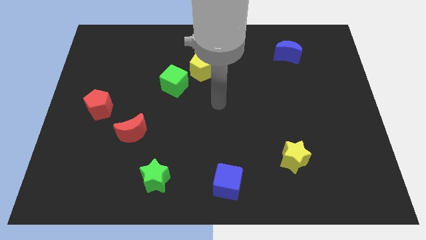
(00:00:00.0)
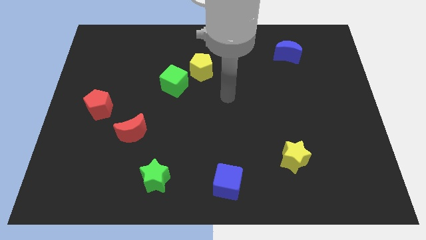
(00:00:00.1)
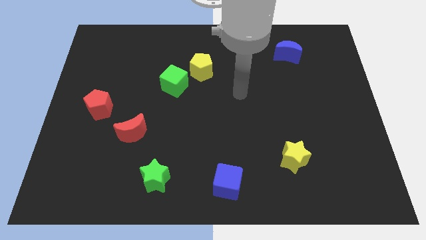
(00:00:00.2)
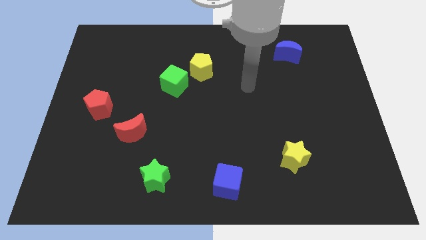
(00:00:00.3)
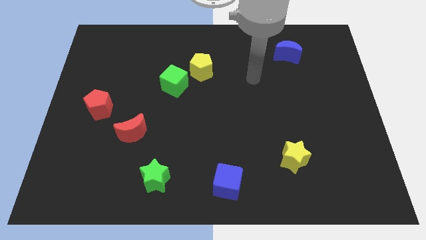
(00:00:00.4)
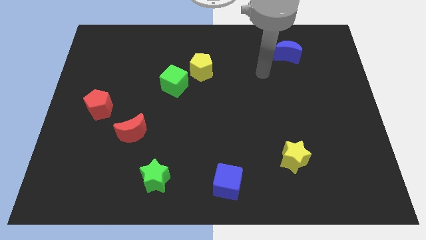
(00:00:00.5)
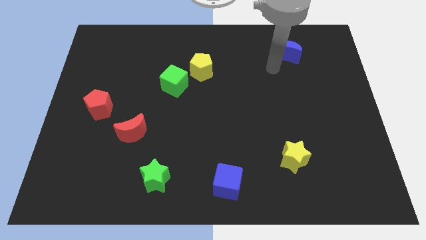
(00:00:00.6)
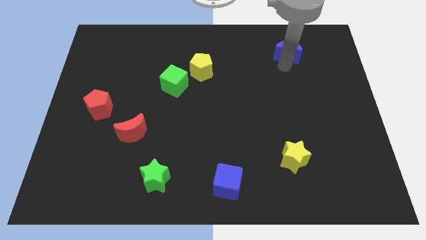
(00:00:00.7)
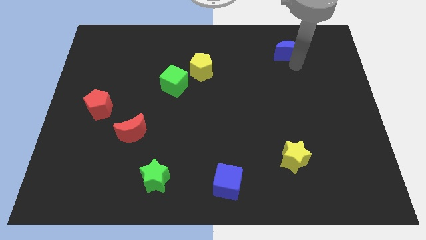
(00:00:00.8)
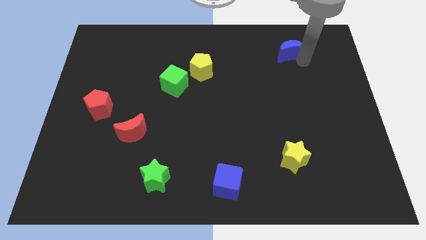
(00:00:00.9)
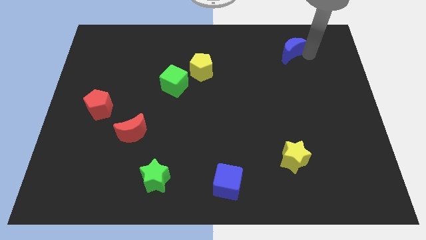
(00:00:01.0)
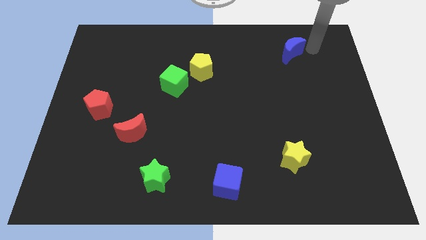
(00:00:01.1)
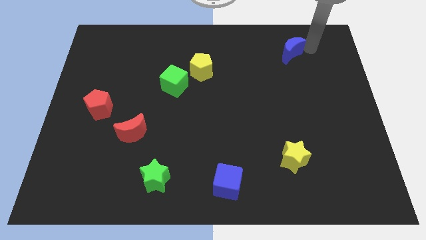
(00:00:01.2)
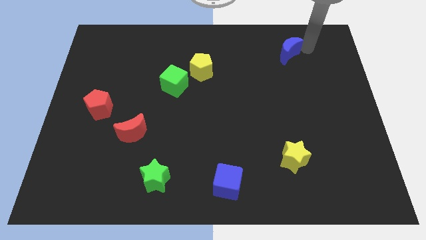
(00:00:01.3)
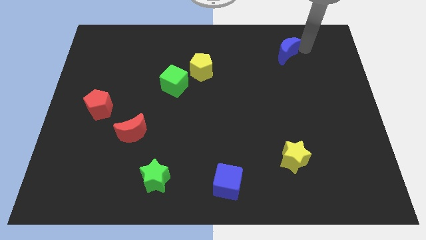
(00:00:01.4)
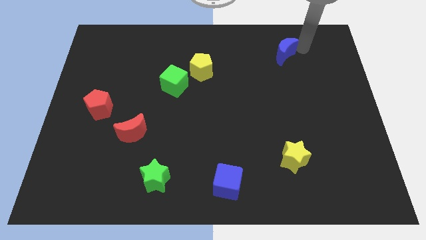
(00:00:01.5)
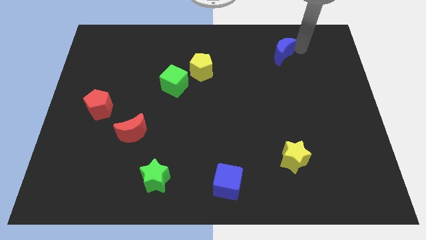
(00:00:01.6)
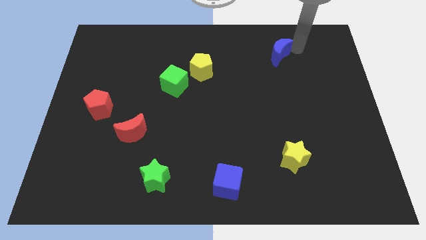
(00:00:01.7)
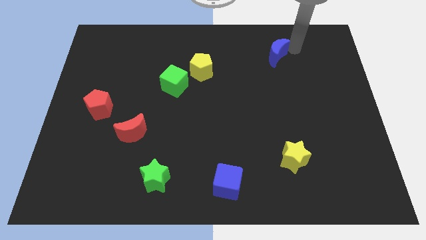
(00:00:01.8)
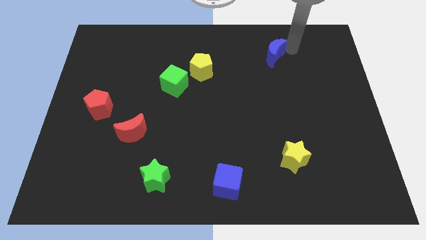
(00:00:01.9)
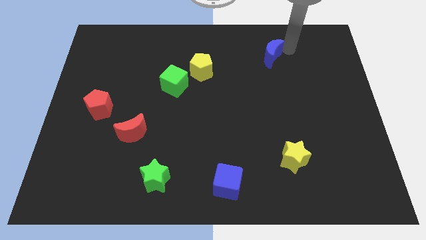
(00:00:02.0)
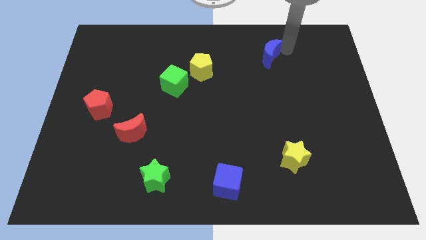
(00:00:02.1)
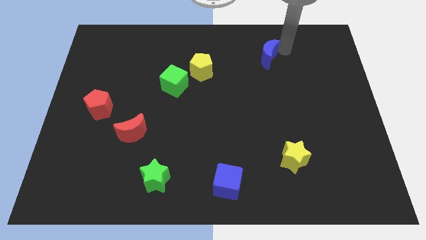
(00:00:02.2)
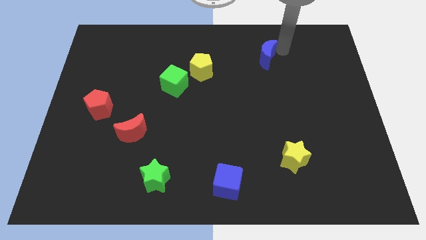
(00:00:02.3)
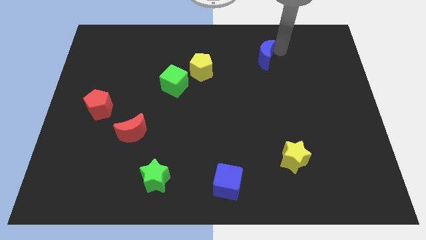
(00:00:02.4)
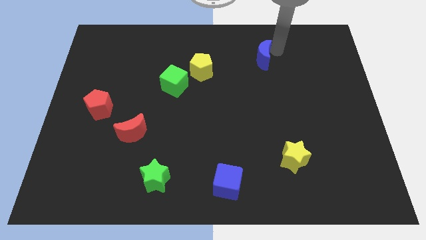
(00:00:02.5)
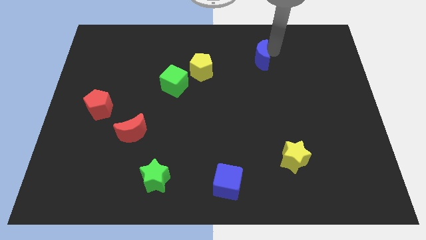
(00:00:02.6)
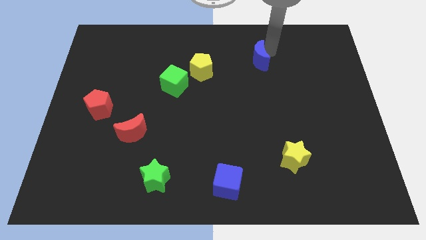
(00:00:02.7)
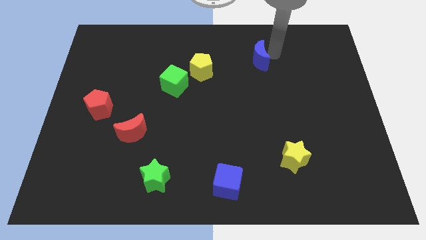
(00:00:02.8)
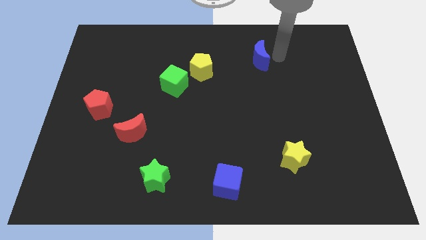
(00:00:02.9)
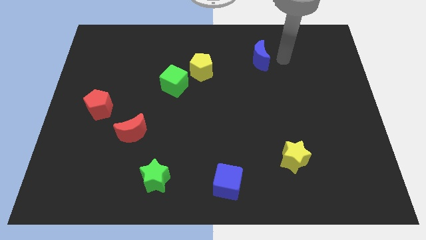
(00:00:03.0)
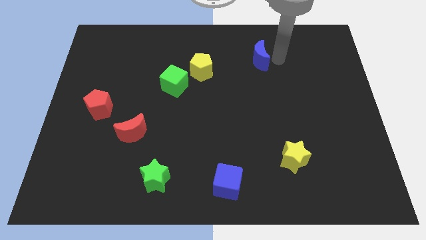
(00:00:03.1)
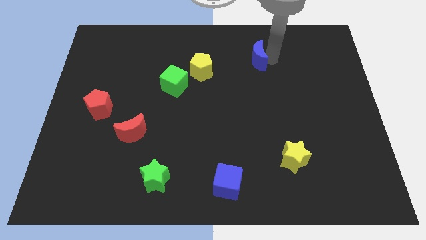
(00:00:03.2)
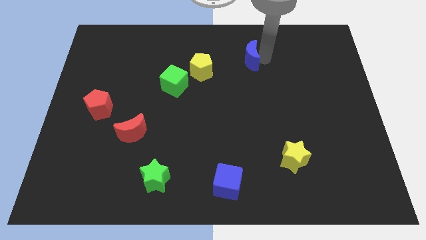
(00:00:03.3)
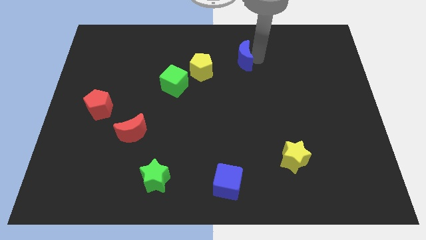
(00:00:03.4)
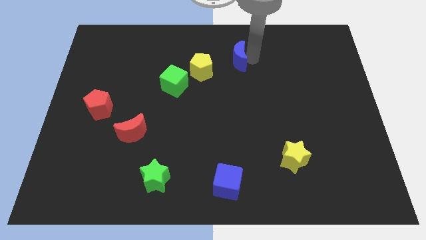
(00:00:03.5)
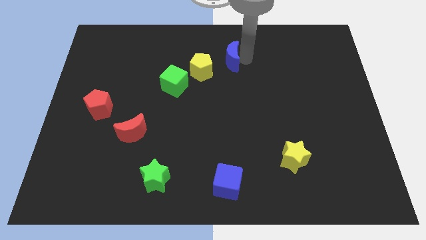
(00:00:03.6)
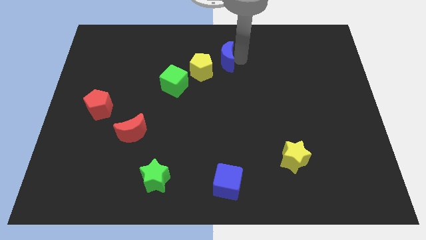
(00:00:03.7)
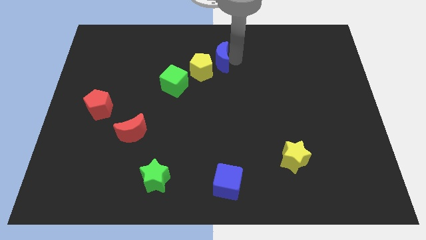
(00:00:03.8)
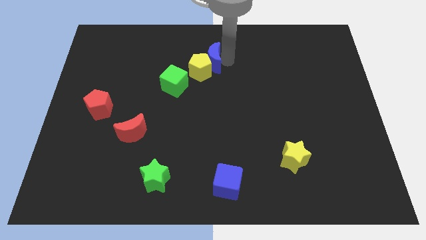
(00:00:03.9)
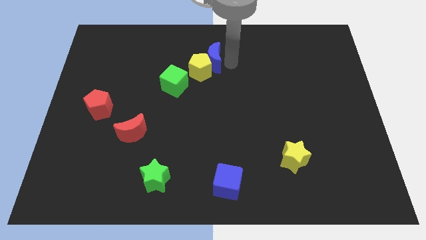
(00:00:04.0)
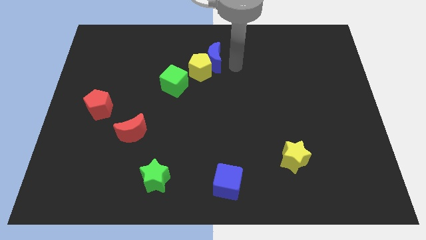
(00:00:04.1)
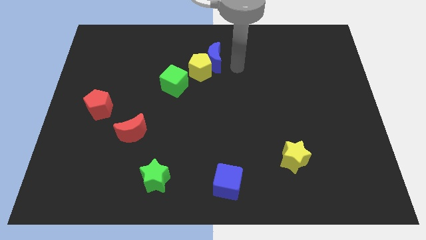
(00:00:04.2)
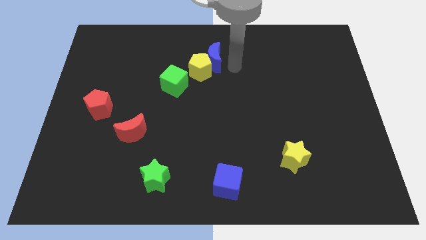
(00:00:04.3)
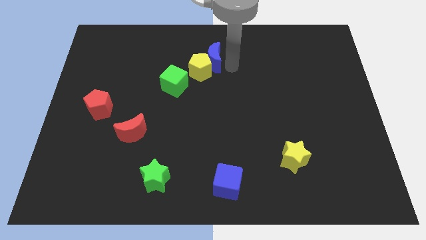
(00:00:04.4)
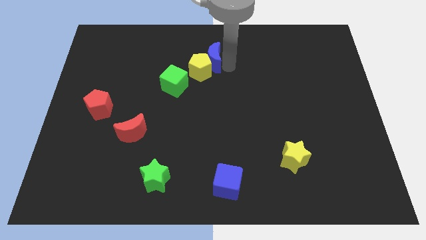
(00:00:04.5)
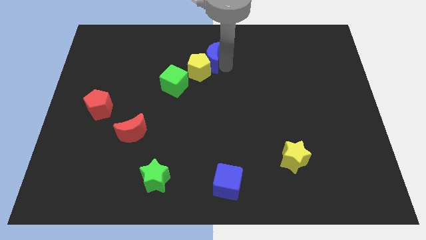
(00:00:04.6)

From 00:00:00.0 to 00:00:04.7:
slide the blue moon left

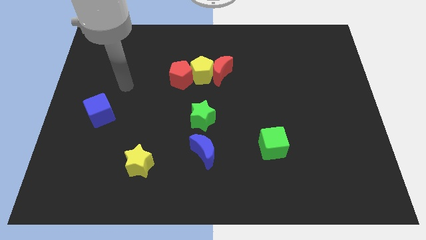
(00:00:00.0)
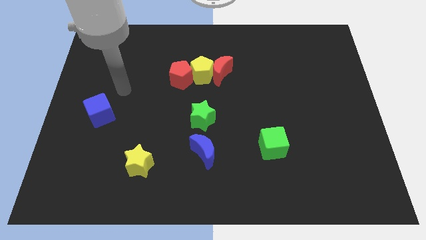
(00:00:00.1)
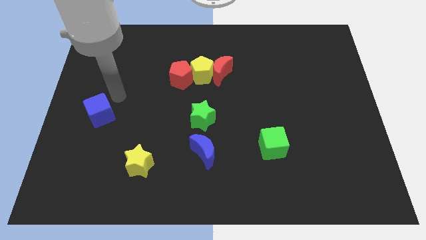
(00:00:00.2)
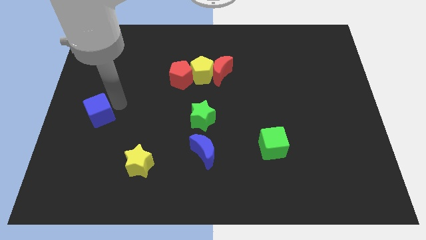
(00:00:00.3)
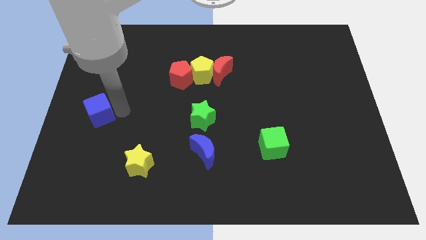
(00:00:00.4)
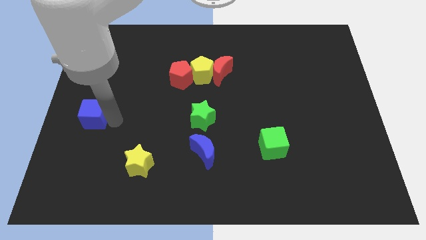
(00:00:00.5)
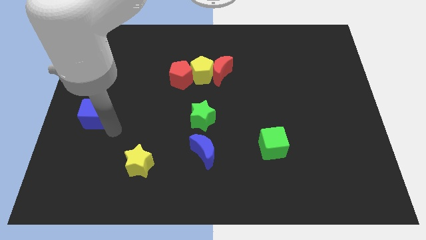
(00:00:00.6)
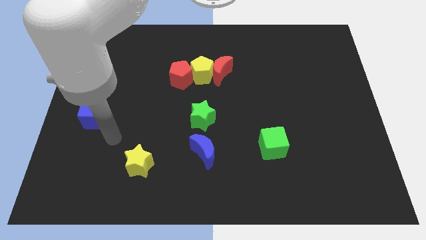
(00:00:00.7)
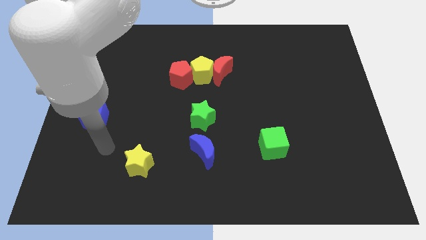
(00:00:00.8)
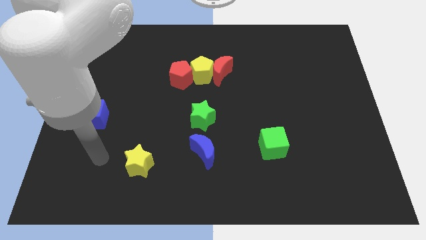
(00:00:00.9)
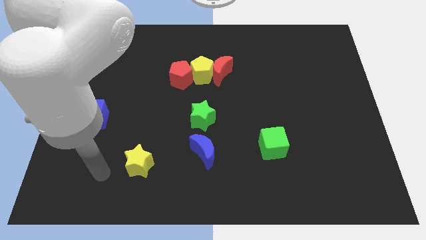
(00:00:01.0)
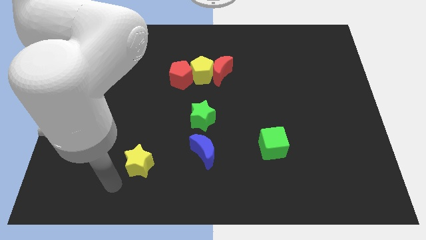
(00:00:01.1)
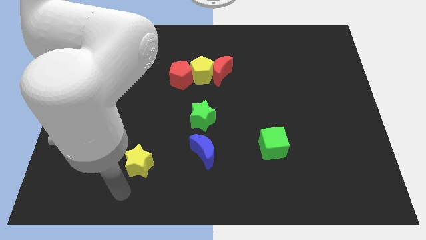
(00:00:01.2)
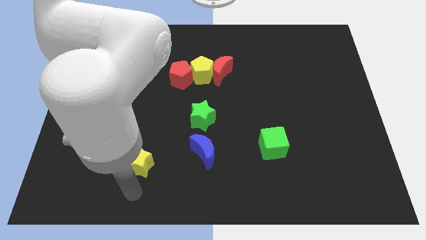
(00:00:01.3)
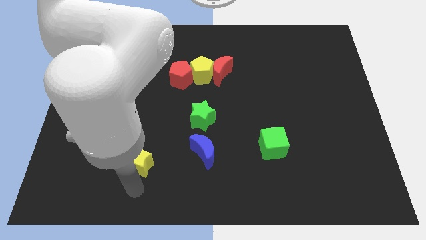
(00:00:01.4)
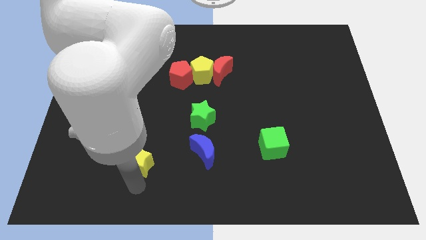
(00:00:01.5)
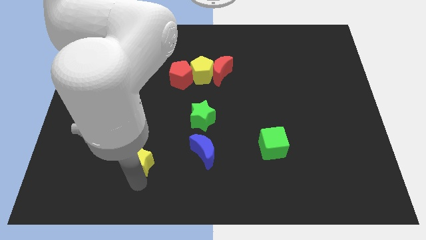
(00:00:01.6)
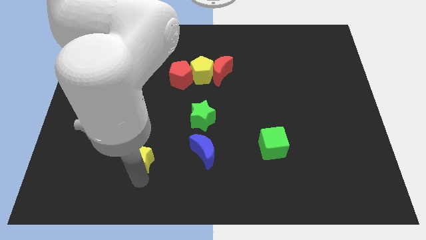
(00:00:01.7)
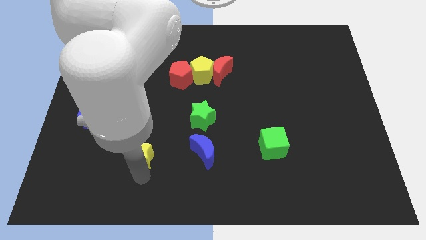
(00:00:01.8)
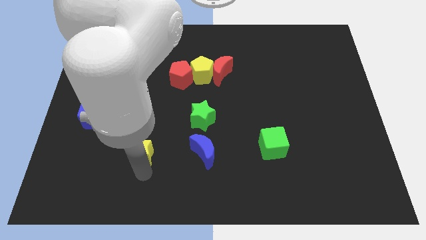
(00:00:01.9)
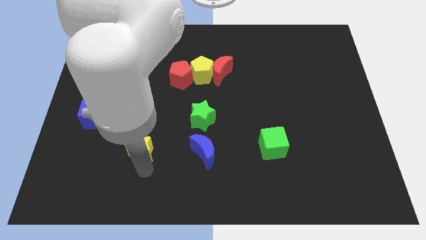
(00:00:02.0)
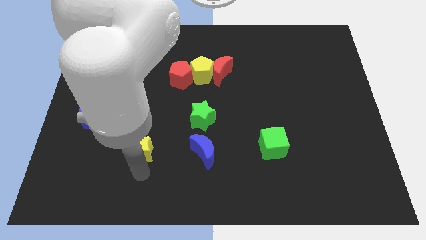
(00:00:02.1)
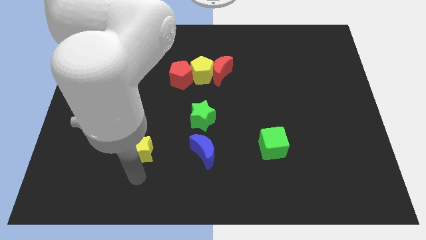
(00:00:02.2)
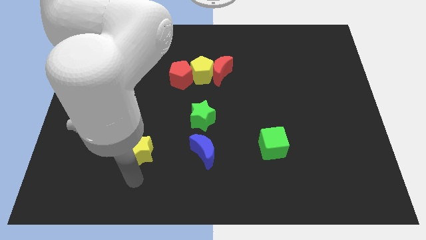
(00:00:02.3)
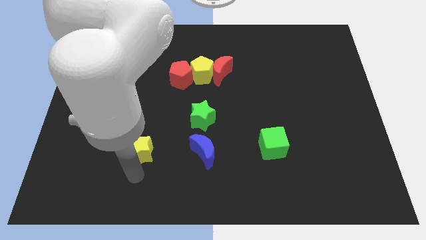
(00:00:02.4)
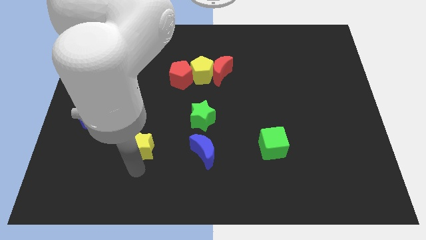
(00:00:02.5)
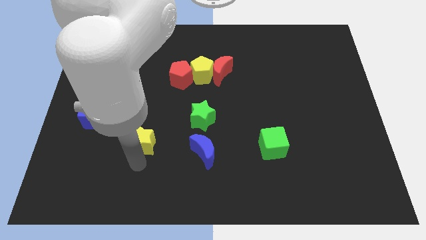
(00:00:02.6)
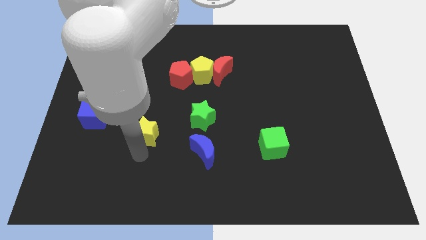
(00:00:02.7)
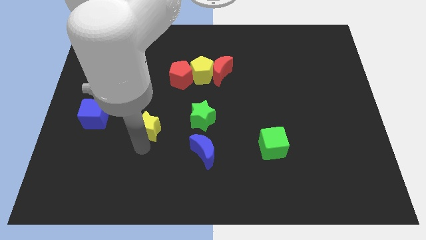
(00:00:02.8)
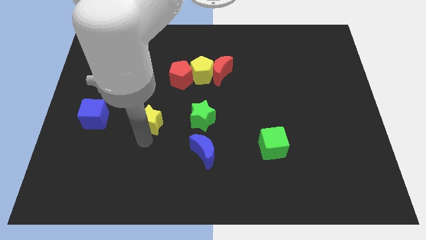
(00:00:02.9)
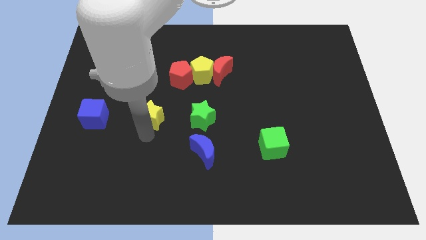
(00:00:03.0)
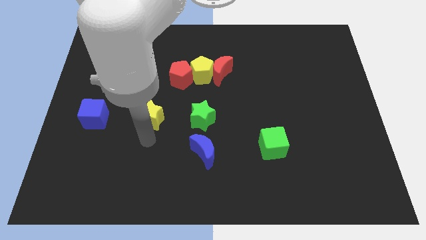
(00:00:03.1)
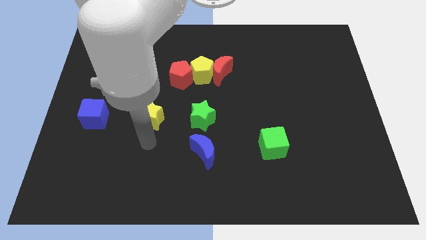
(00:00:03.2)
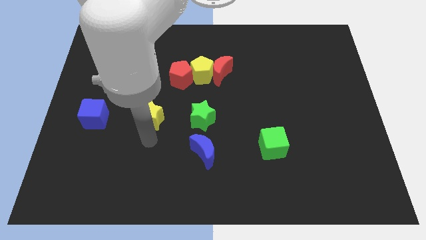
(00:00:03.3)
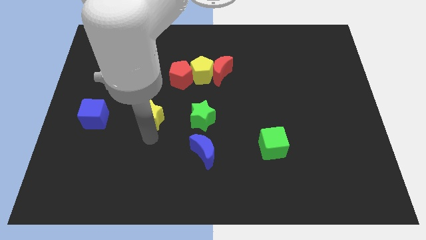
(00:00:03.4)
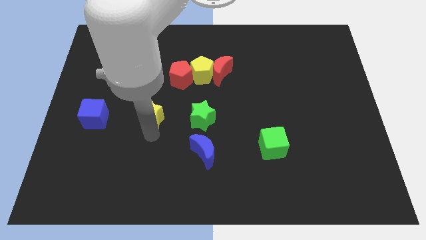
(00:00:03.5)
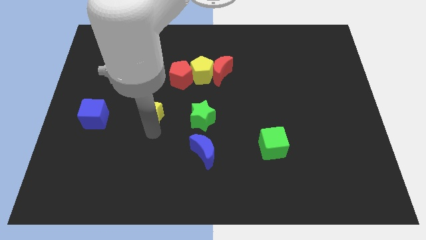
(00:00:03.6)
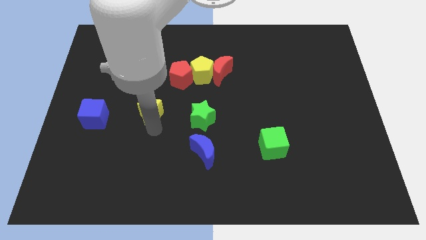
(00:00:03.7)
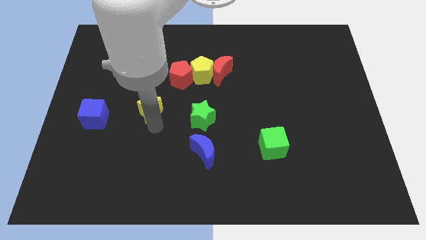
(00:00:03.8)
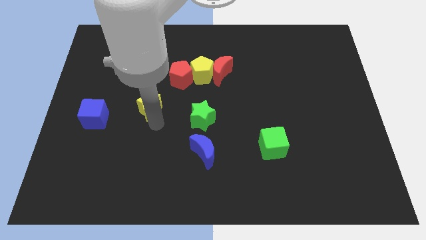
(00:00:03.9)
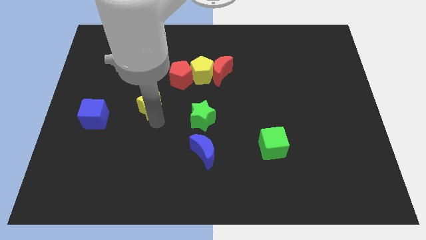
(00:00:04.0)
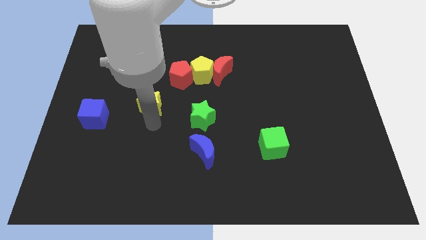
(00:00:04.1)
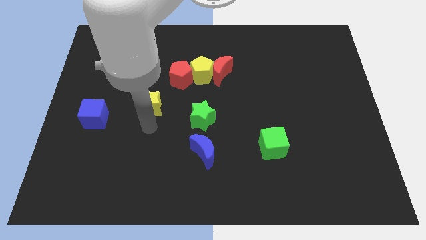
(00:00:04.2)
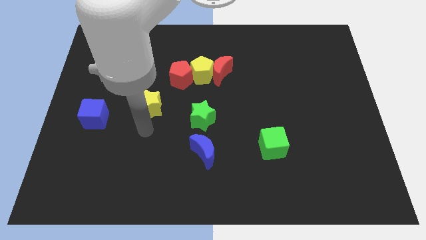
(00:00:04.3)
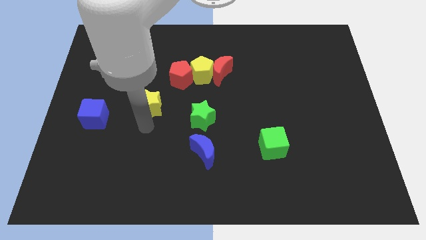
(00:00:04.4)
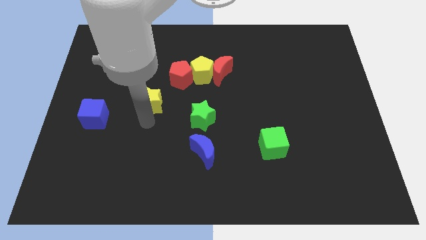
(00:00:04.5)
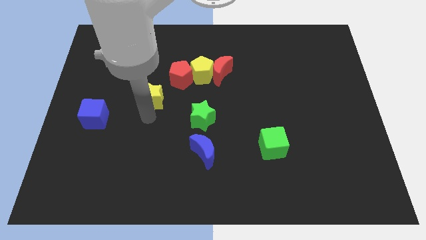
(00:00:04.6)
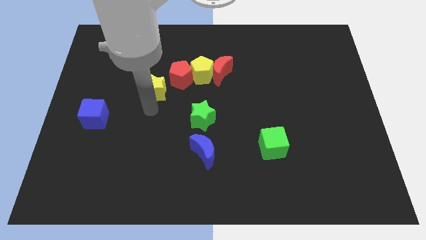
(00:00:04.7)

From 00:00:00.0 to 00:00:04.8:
move the yellow star upwards
